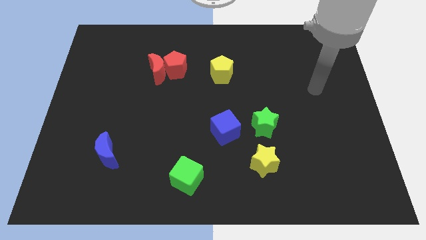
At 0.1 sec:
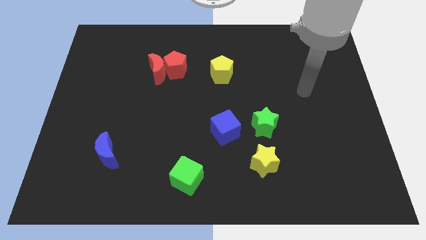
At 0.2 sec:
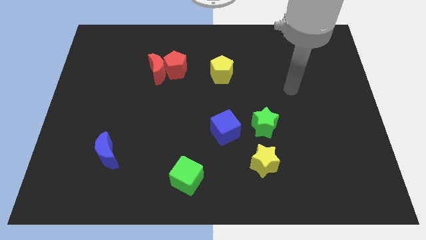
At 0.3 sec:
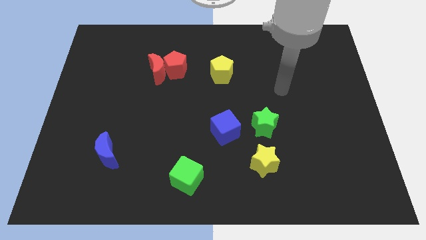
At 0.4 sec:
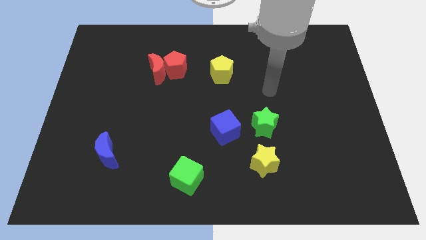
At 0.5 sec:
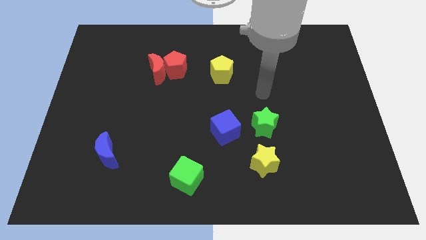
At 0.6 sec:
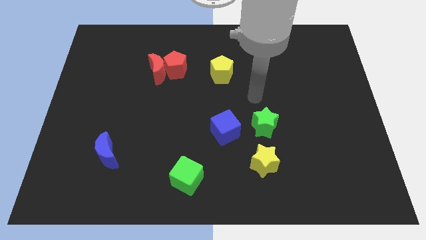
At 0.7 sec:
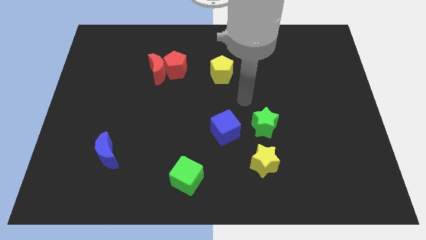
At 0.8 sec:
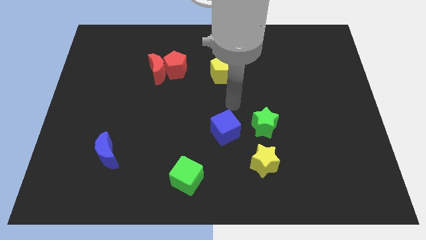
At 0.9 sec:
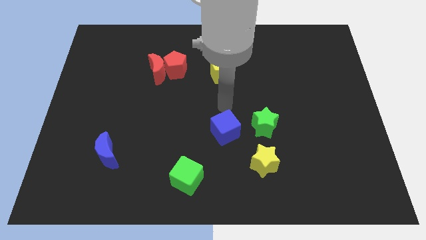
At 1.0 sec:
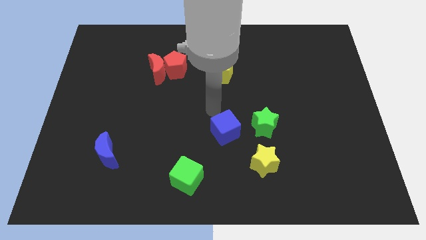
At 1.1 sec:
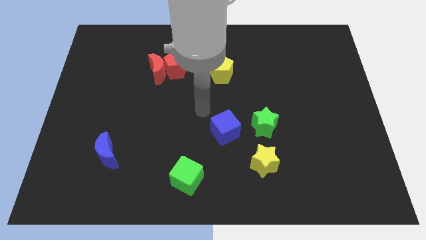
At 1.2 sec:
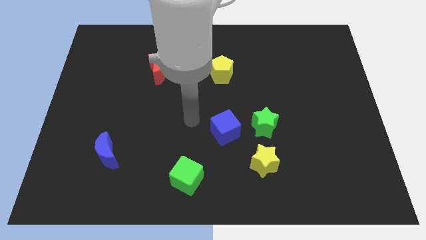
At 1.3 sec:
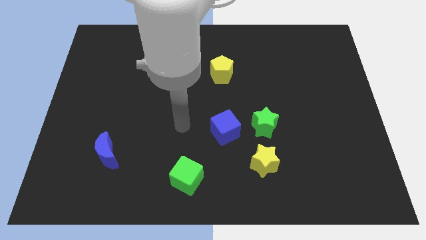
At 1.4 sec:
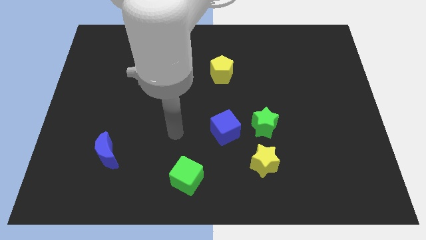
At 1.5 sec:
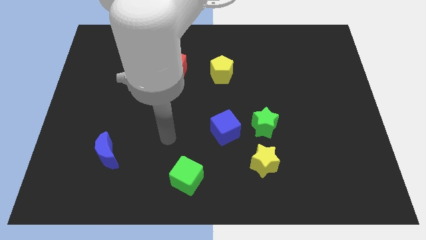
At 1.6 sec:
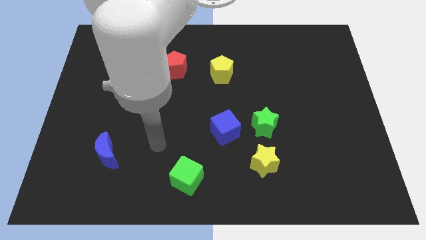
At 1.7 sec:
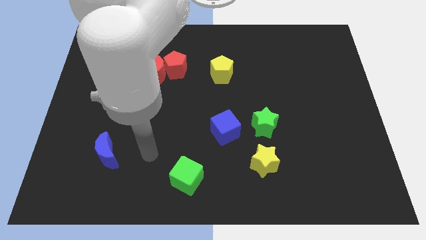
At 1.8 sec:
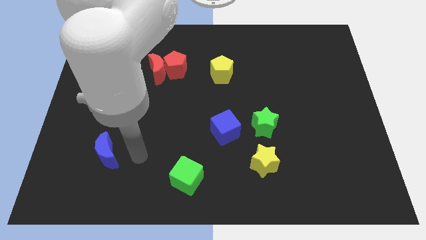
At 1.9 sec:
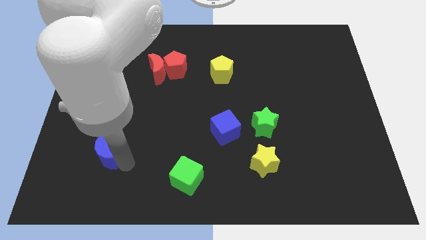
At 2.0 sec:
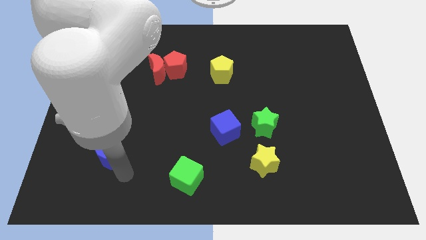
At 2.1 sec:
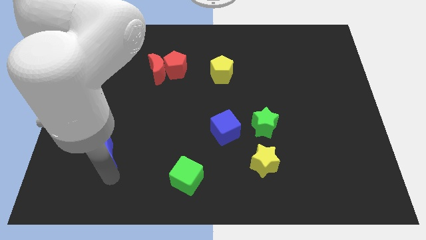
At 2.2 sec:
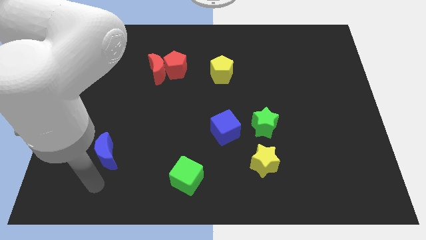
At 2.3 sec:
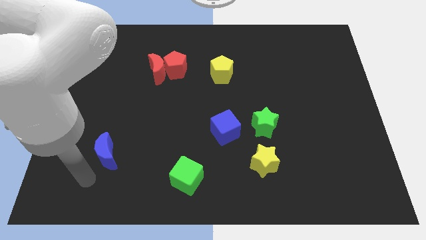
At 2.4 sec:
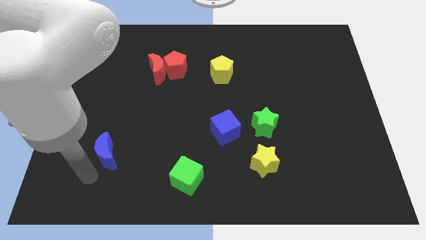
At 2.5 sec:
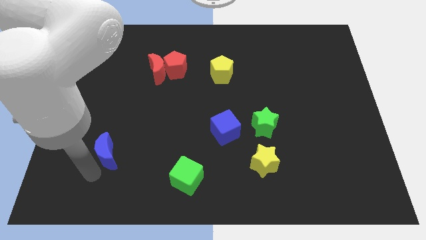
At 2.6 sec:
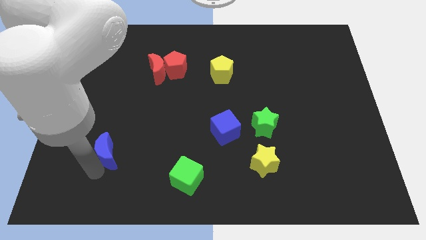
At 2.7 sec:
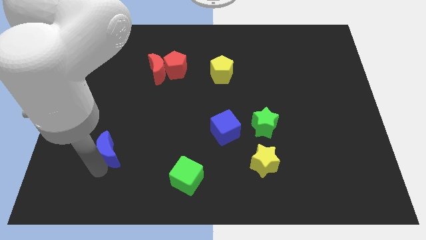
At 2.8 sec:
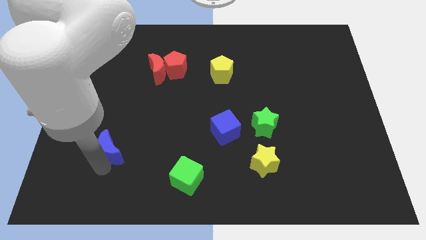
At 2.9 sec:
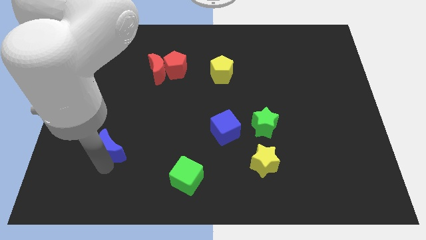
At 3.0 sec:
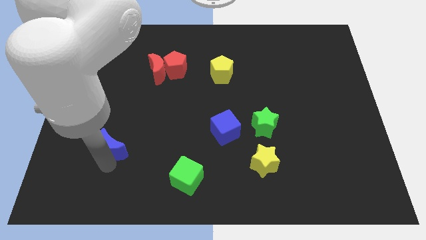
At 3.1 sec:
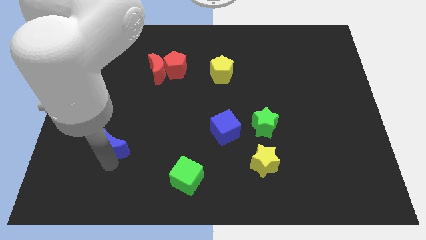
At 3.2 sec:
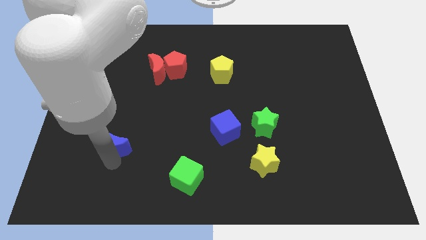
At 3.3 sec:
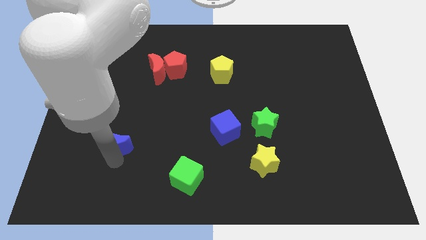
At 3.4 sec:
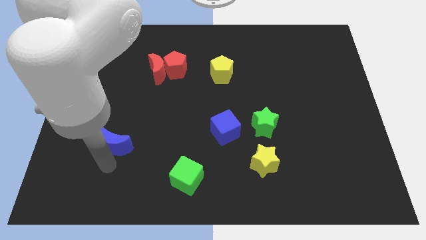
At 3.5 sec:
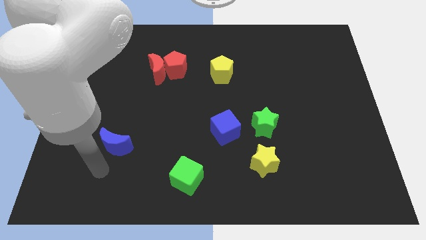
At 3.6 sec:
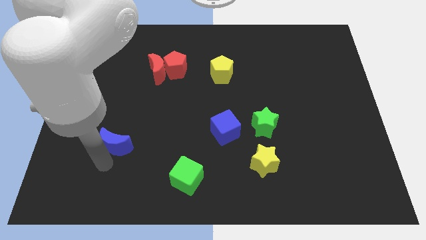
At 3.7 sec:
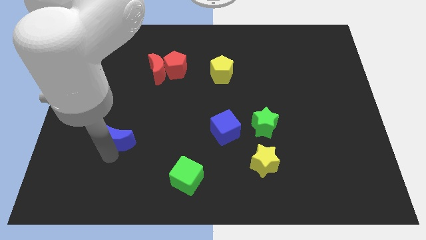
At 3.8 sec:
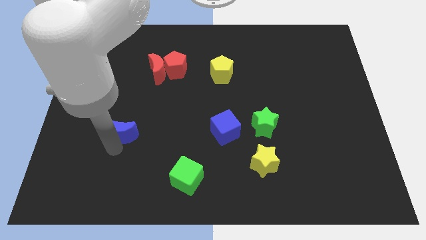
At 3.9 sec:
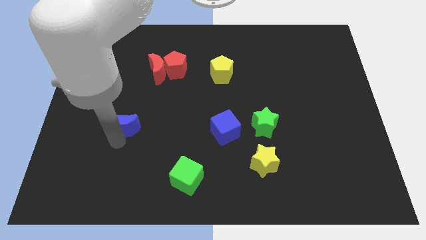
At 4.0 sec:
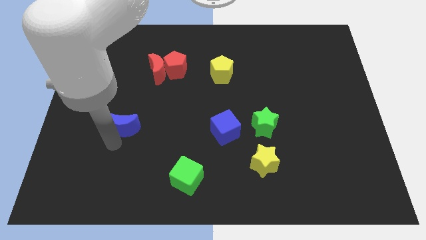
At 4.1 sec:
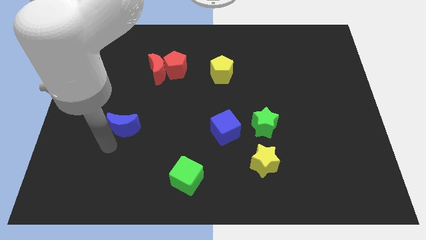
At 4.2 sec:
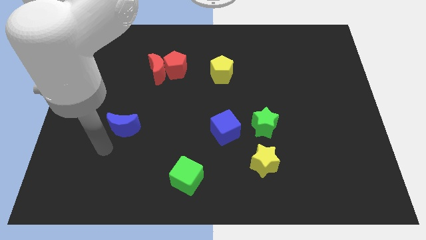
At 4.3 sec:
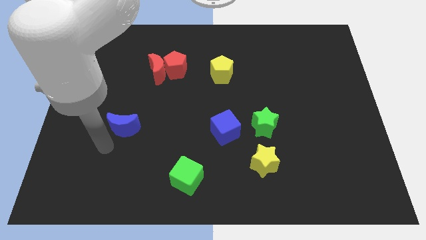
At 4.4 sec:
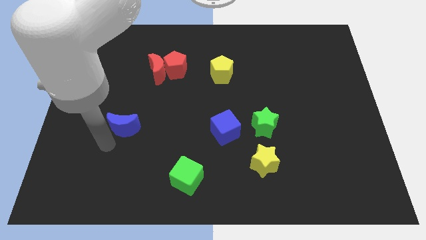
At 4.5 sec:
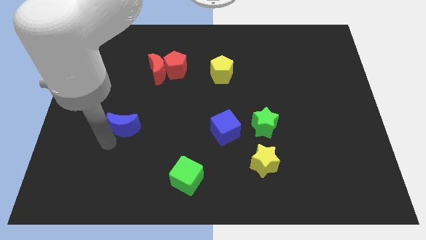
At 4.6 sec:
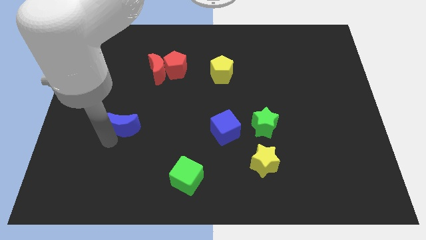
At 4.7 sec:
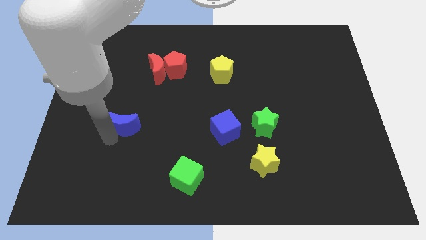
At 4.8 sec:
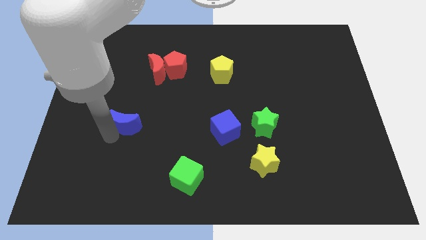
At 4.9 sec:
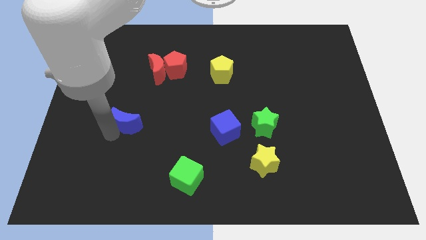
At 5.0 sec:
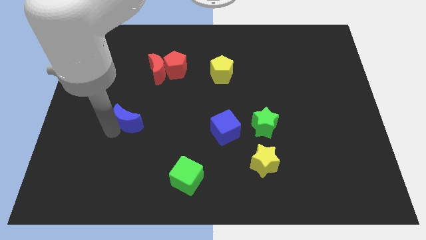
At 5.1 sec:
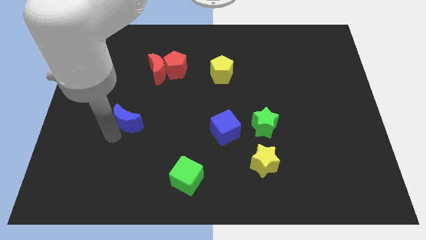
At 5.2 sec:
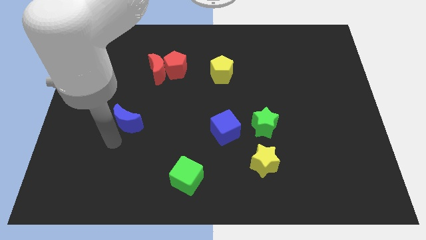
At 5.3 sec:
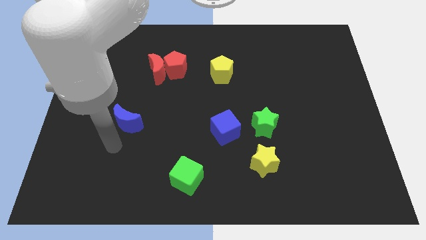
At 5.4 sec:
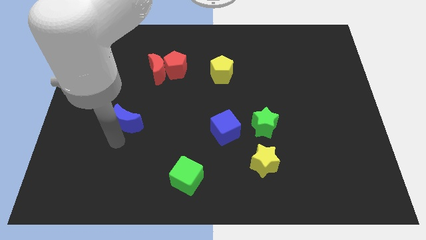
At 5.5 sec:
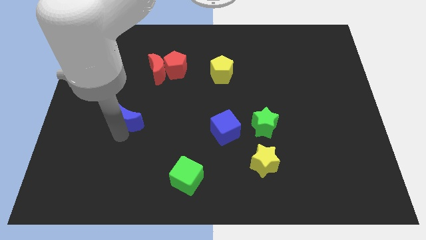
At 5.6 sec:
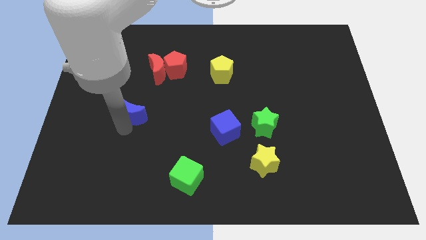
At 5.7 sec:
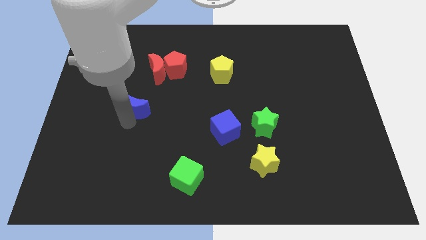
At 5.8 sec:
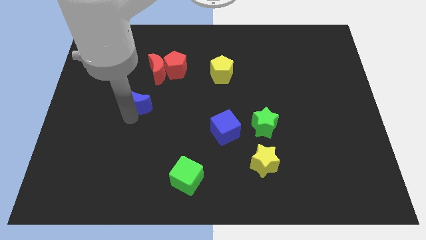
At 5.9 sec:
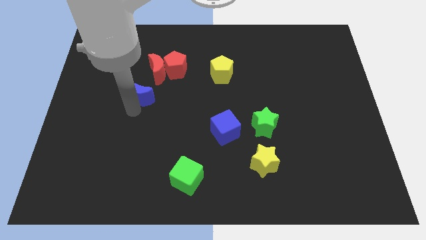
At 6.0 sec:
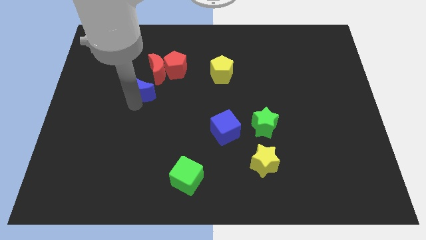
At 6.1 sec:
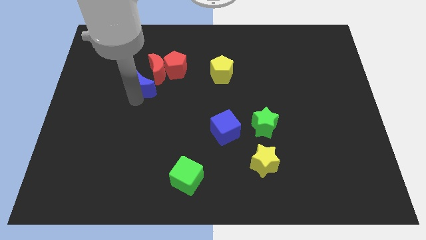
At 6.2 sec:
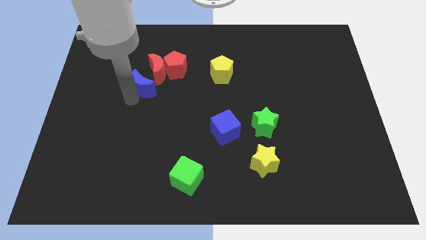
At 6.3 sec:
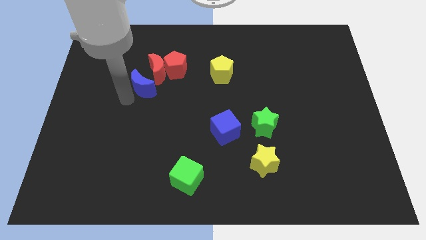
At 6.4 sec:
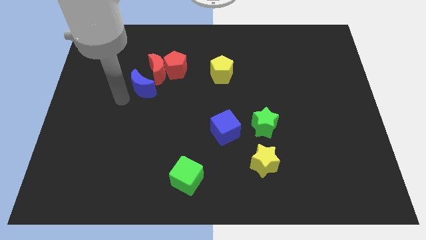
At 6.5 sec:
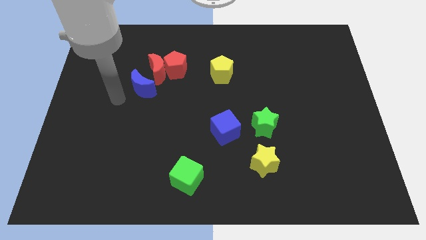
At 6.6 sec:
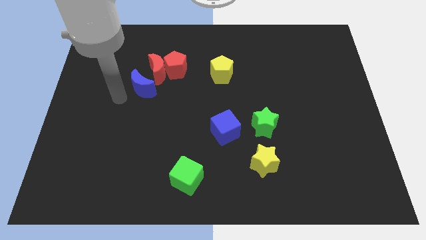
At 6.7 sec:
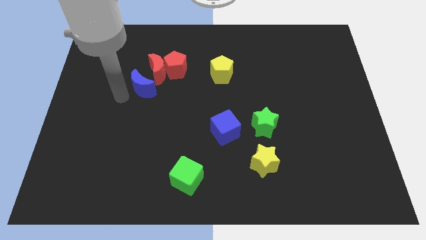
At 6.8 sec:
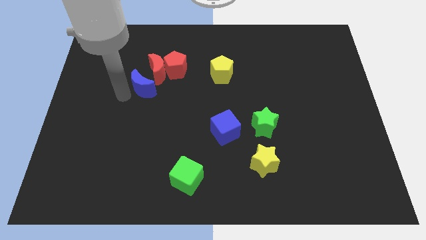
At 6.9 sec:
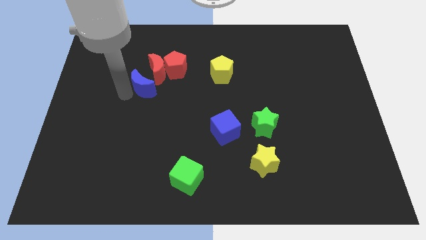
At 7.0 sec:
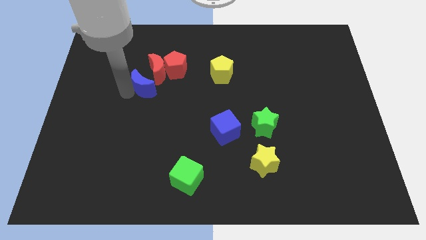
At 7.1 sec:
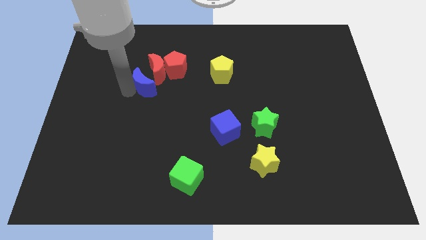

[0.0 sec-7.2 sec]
slide the blue moon to the red moon

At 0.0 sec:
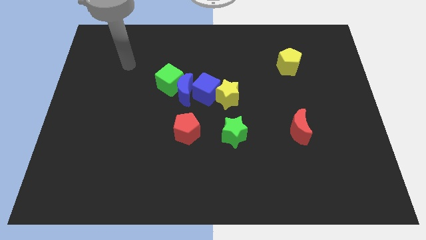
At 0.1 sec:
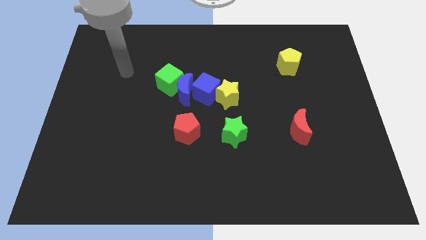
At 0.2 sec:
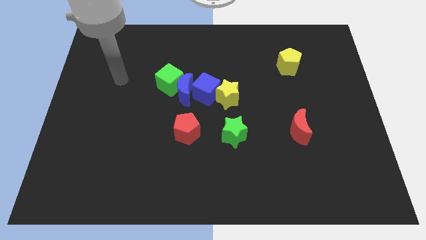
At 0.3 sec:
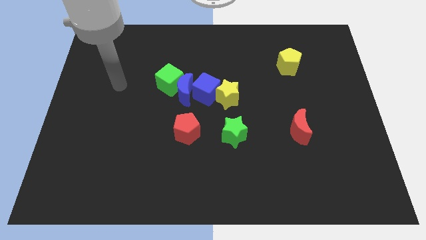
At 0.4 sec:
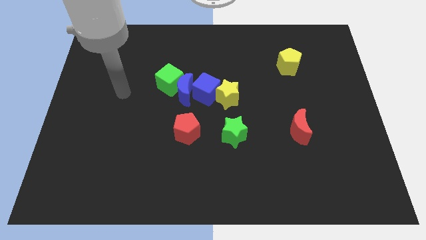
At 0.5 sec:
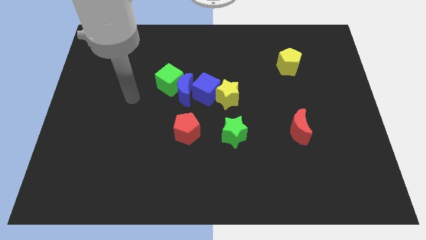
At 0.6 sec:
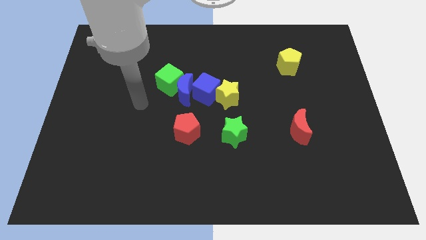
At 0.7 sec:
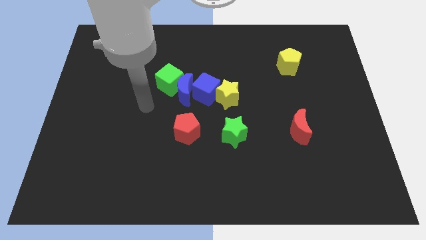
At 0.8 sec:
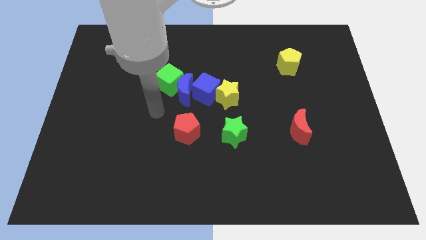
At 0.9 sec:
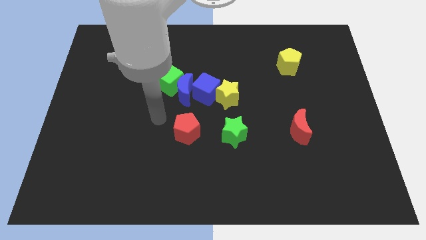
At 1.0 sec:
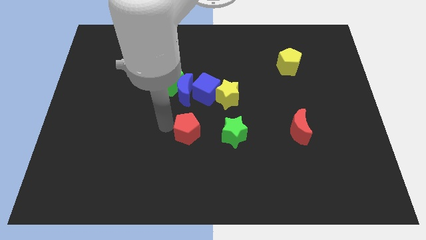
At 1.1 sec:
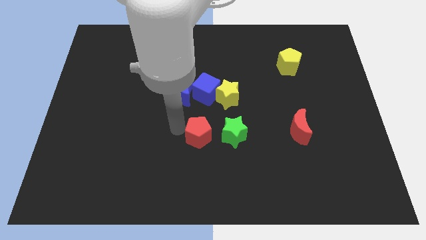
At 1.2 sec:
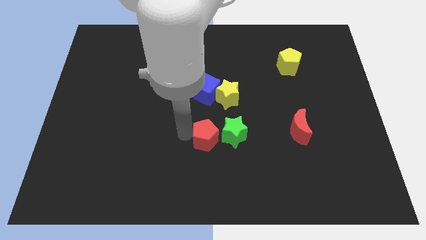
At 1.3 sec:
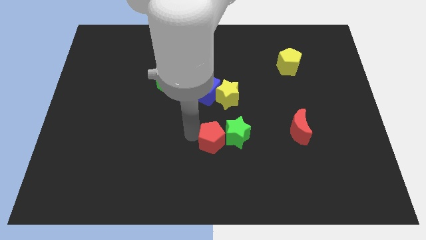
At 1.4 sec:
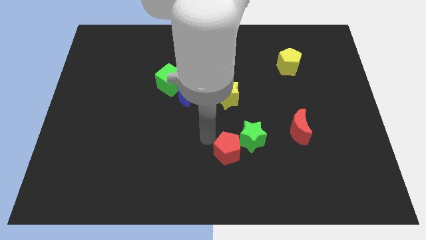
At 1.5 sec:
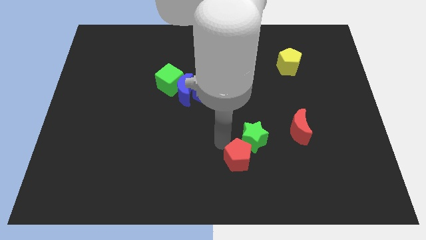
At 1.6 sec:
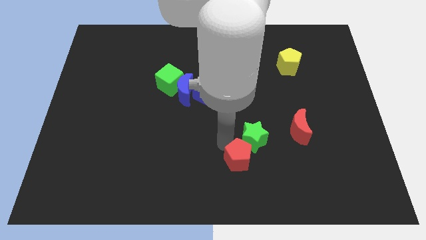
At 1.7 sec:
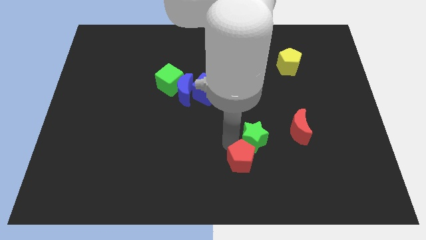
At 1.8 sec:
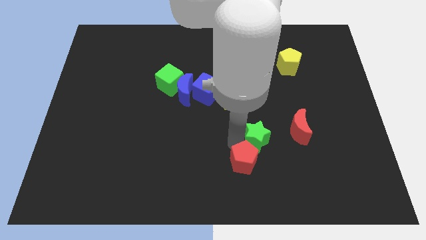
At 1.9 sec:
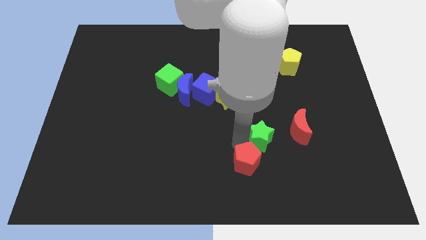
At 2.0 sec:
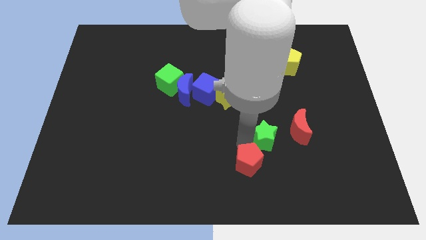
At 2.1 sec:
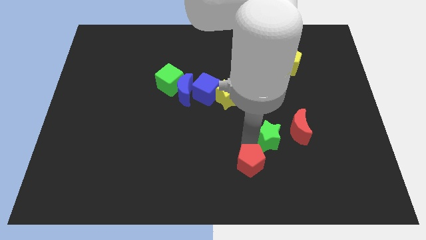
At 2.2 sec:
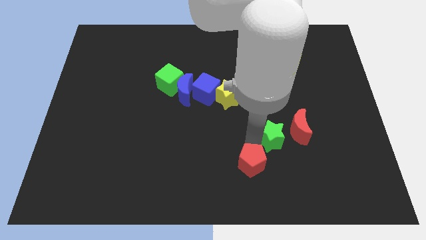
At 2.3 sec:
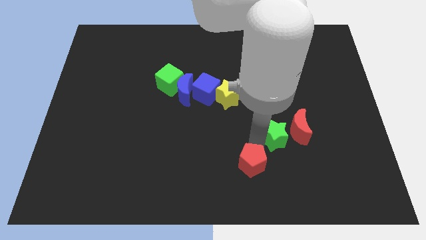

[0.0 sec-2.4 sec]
slide the green star close to the red moon
